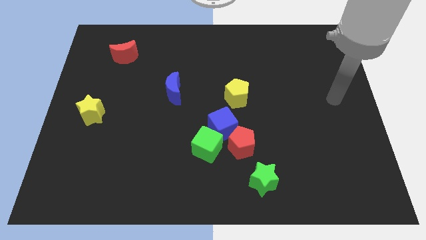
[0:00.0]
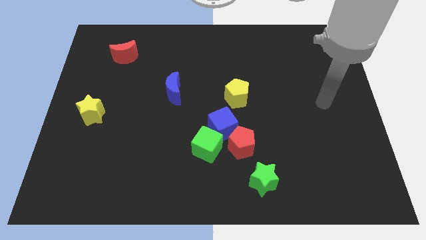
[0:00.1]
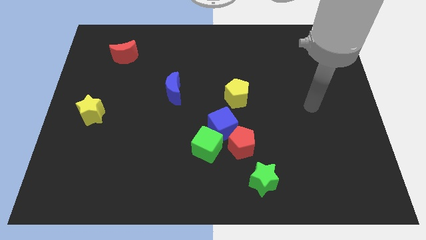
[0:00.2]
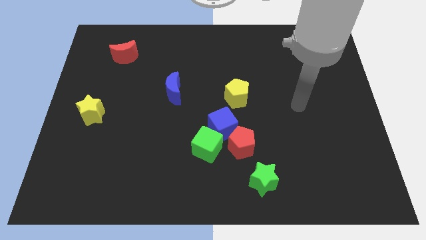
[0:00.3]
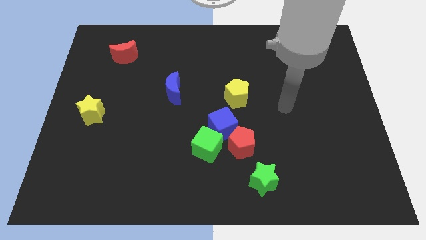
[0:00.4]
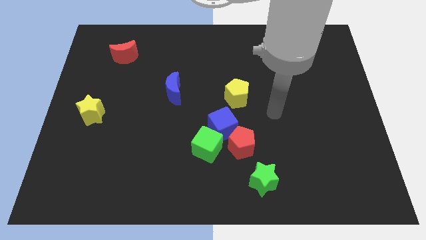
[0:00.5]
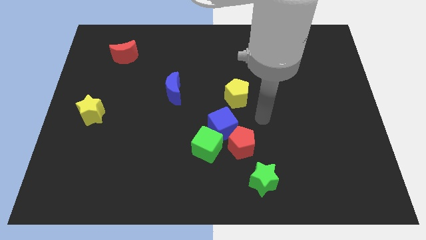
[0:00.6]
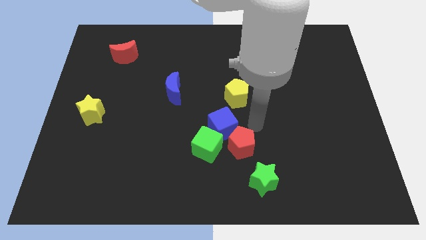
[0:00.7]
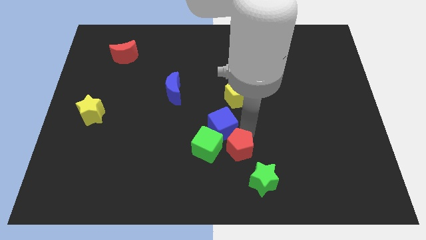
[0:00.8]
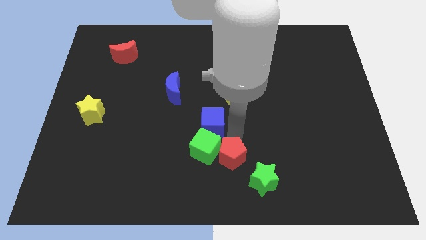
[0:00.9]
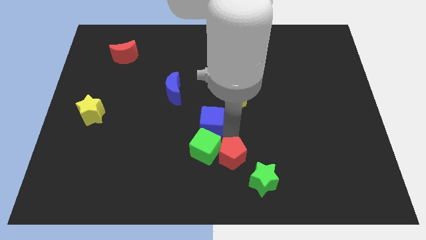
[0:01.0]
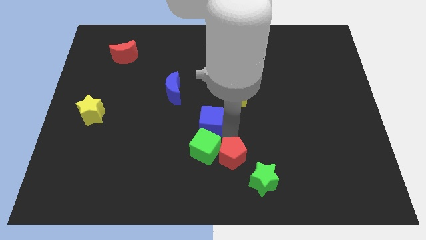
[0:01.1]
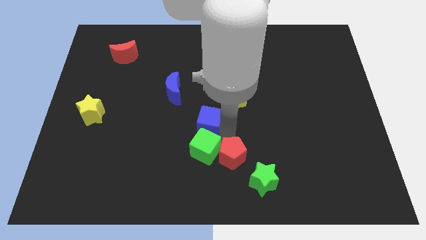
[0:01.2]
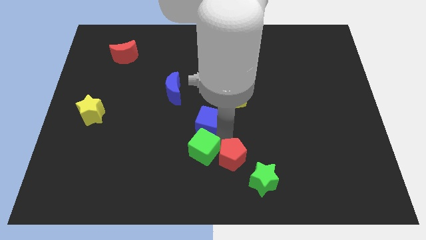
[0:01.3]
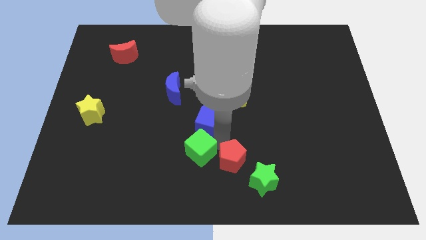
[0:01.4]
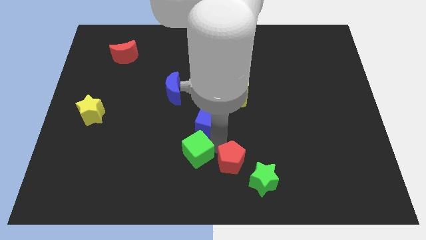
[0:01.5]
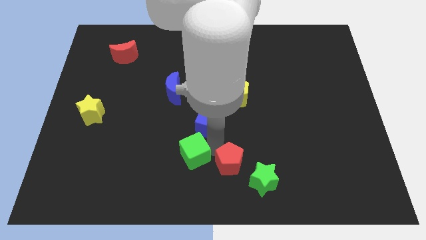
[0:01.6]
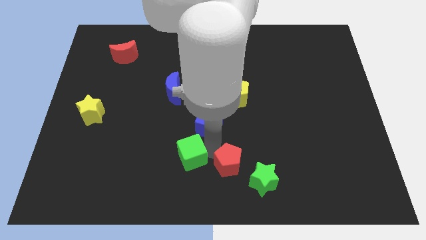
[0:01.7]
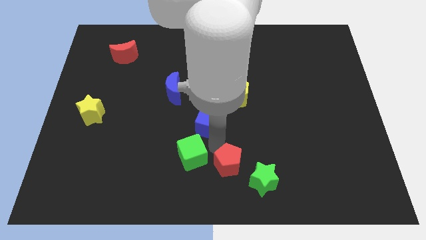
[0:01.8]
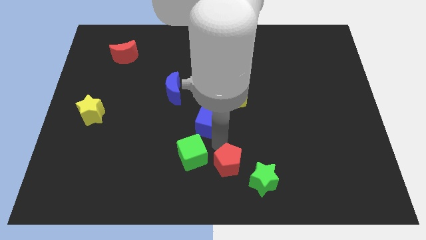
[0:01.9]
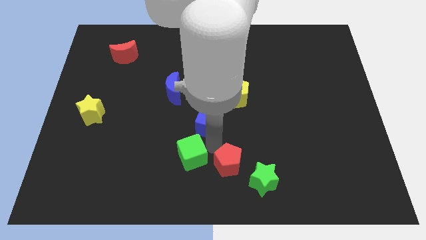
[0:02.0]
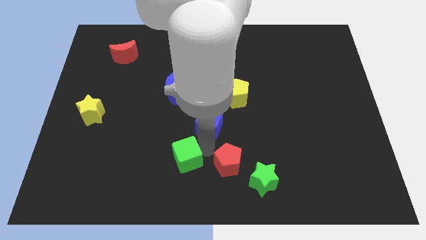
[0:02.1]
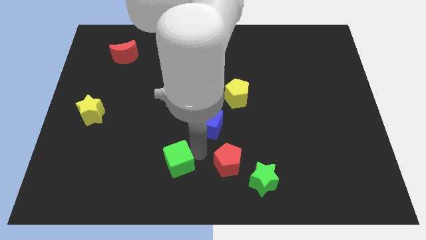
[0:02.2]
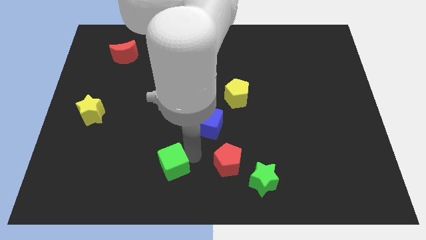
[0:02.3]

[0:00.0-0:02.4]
separate the green cube from the blue cube and red pentagon

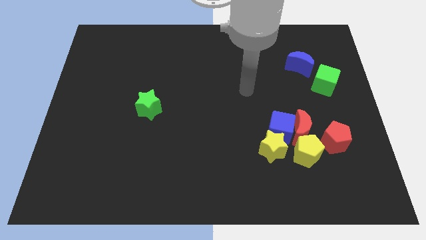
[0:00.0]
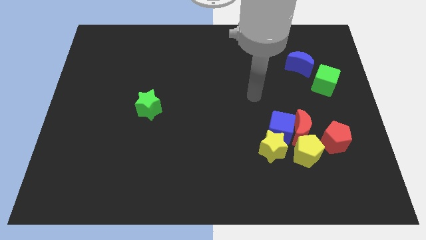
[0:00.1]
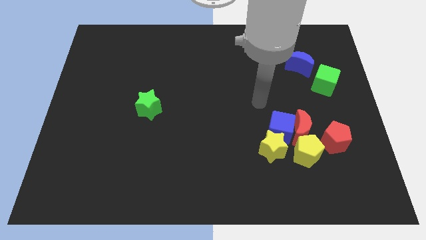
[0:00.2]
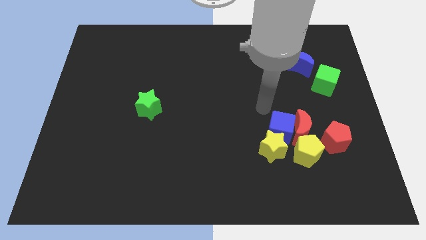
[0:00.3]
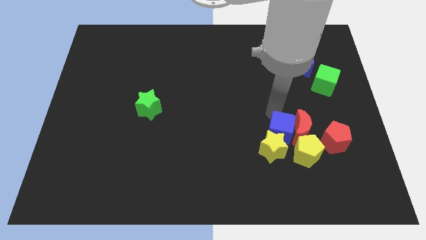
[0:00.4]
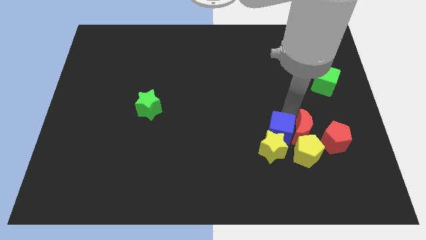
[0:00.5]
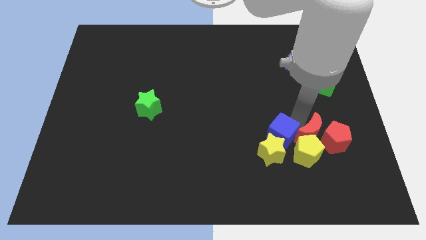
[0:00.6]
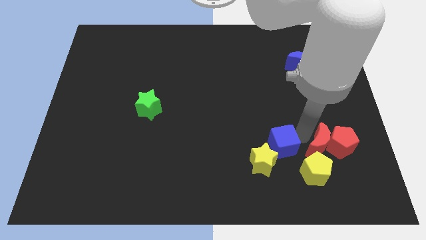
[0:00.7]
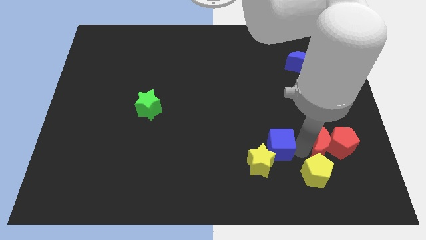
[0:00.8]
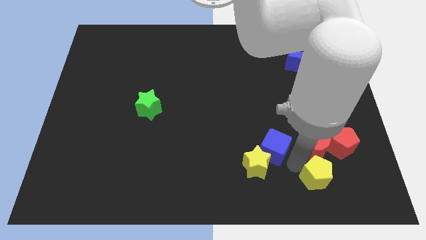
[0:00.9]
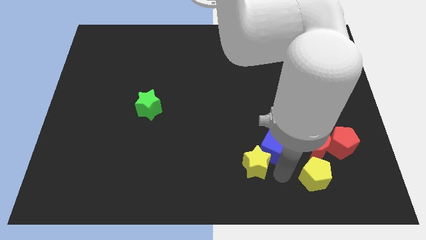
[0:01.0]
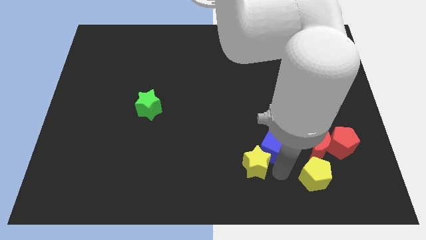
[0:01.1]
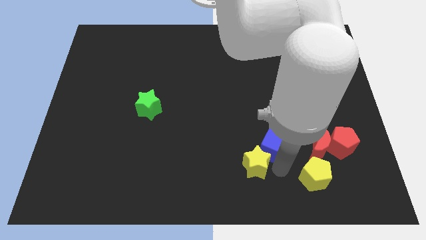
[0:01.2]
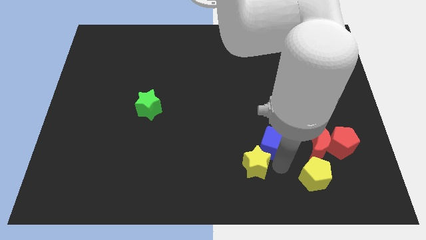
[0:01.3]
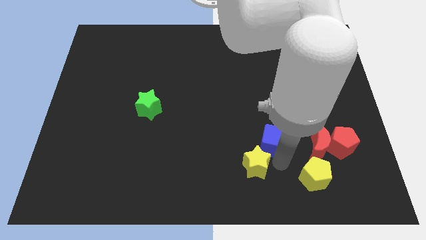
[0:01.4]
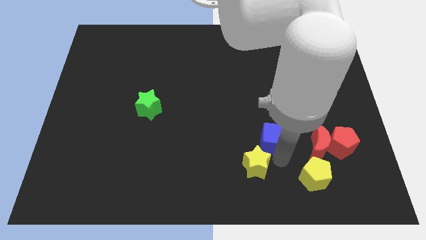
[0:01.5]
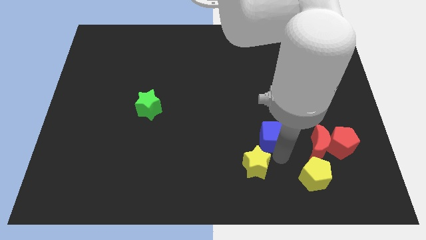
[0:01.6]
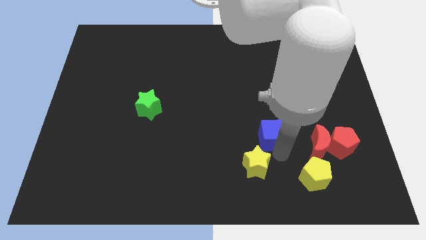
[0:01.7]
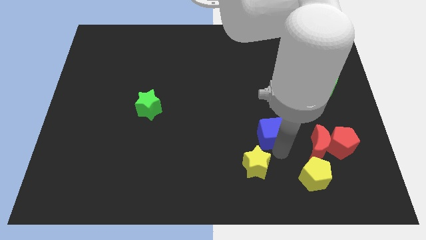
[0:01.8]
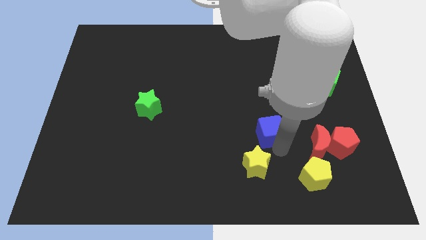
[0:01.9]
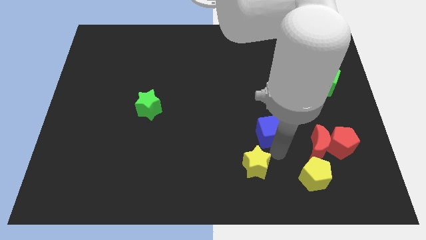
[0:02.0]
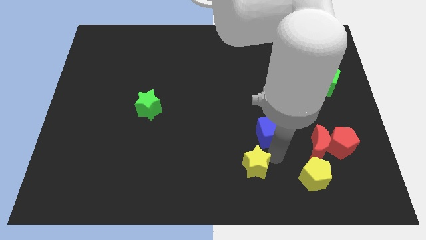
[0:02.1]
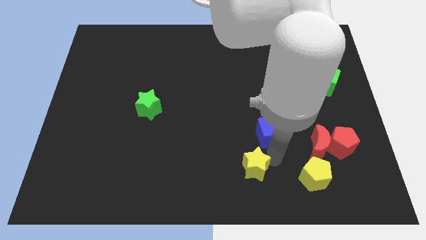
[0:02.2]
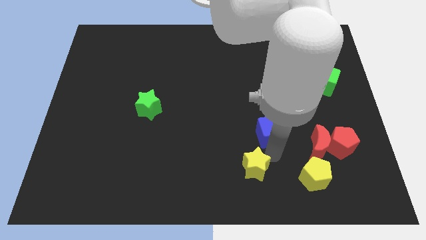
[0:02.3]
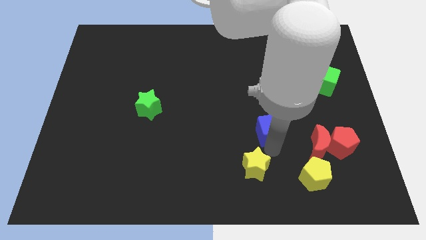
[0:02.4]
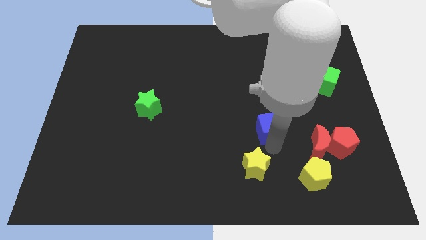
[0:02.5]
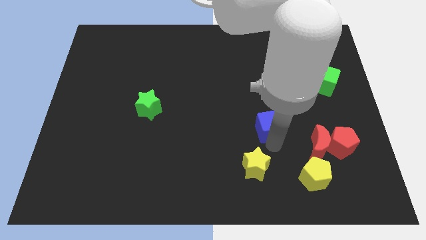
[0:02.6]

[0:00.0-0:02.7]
move the blue cube away from the red moon, yellow star, and yellow pentagon

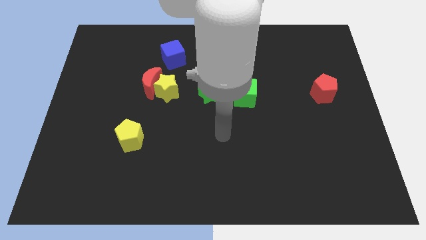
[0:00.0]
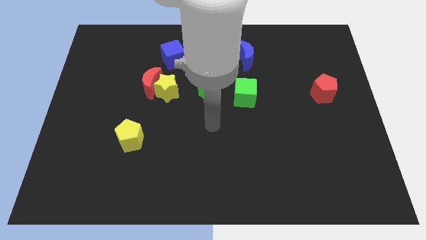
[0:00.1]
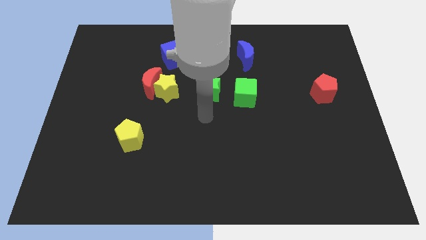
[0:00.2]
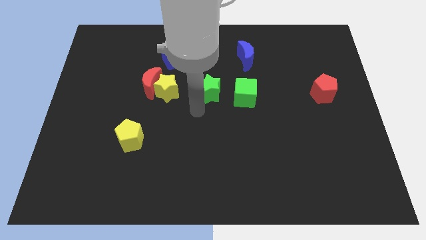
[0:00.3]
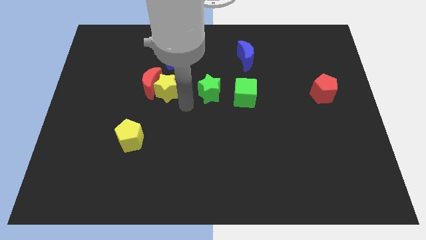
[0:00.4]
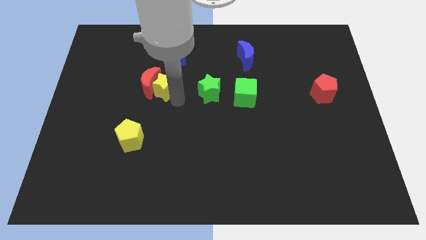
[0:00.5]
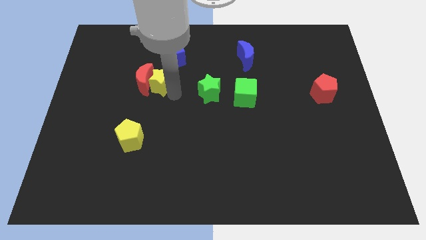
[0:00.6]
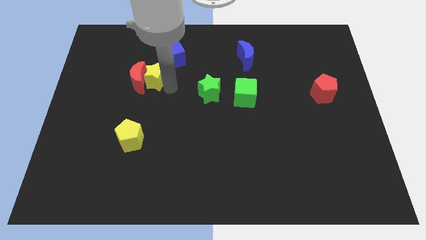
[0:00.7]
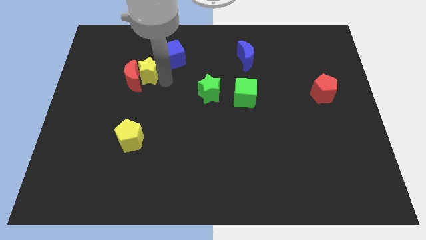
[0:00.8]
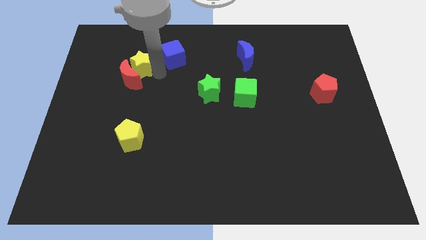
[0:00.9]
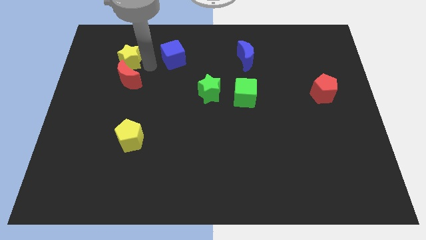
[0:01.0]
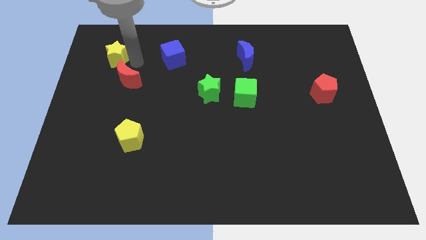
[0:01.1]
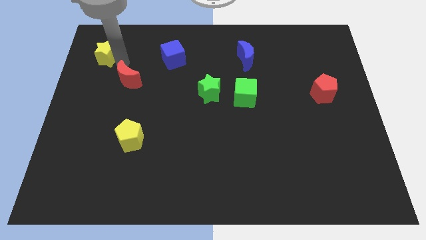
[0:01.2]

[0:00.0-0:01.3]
pull the red moon apart from the yellow star

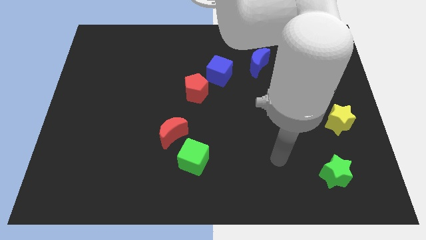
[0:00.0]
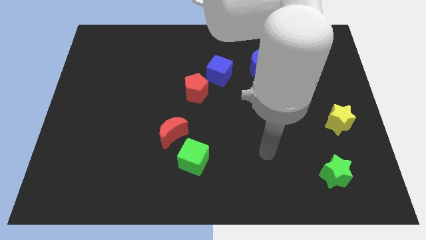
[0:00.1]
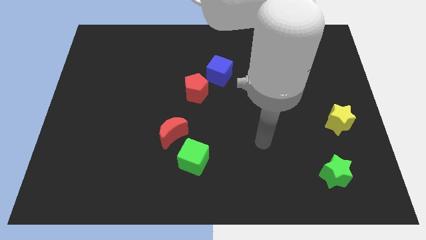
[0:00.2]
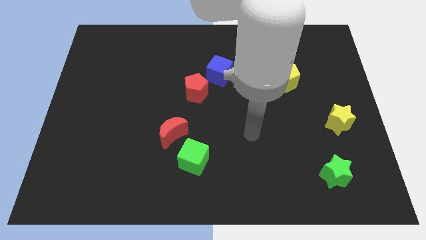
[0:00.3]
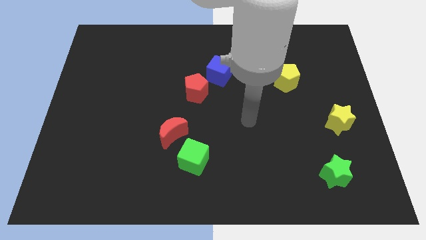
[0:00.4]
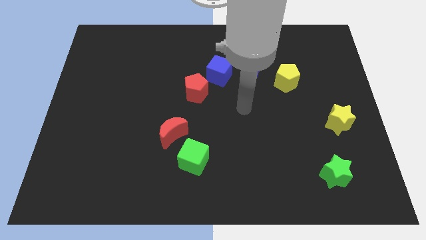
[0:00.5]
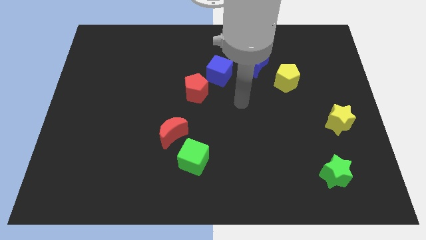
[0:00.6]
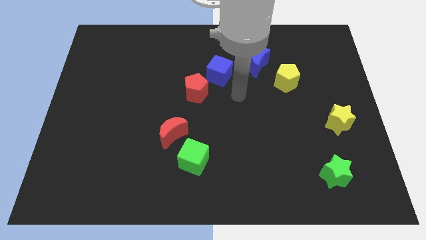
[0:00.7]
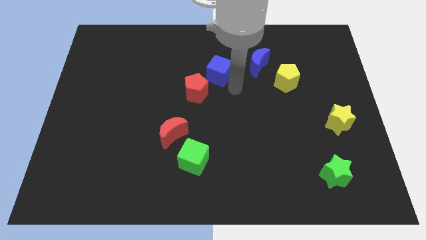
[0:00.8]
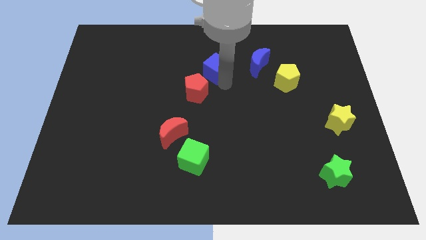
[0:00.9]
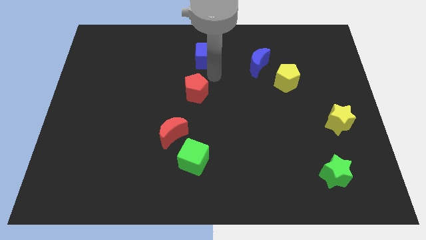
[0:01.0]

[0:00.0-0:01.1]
pull the red pentagon apart from the blue cube

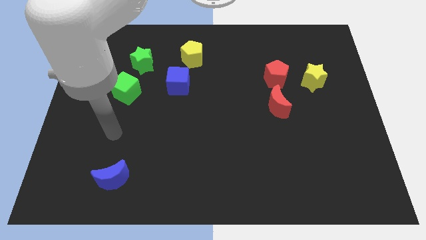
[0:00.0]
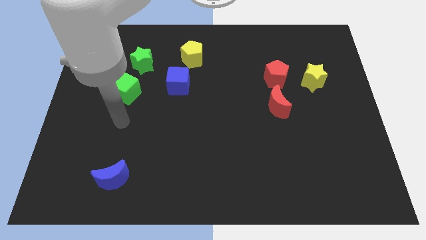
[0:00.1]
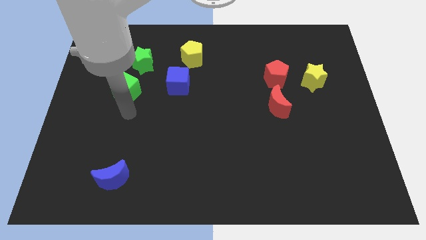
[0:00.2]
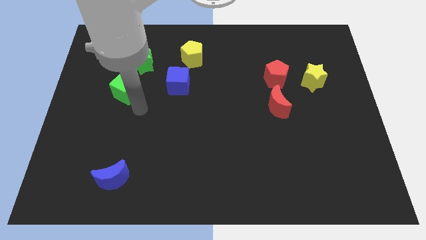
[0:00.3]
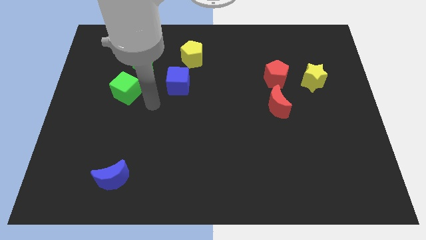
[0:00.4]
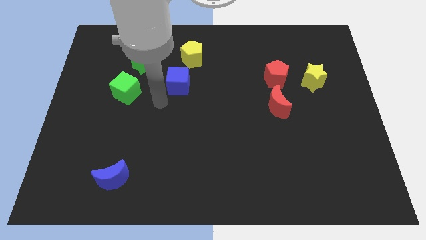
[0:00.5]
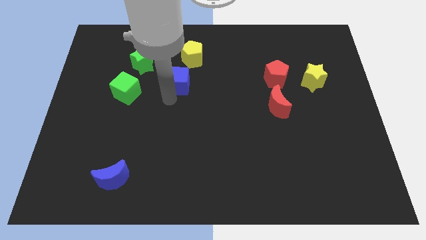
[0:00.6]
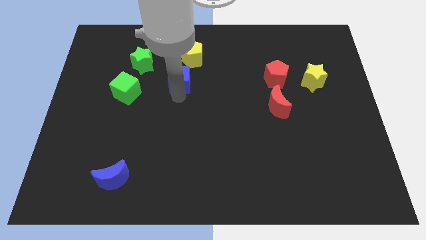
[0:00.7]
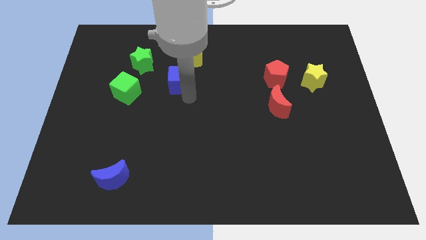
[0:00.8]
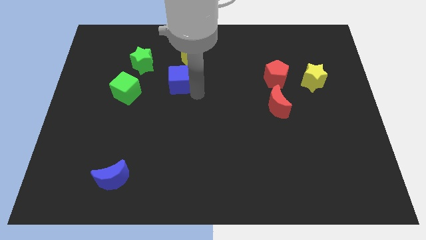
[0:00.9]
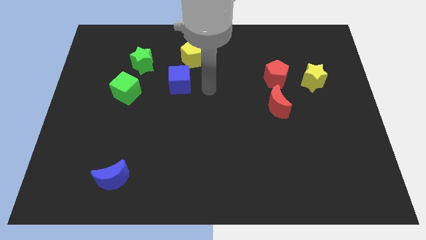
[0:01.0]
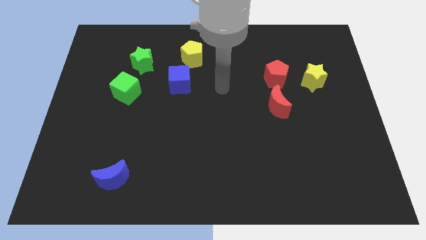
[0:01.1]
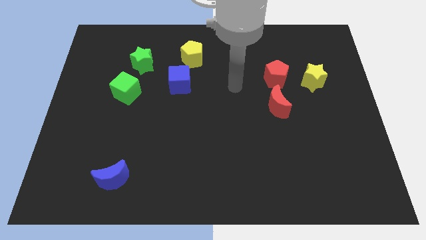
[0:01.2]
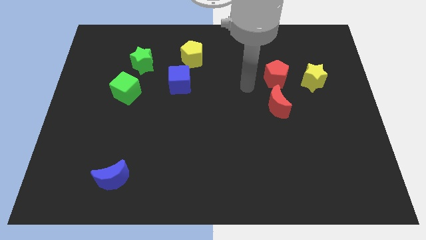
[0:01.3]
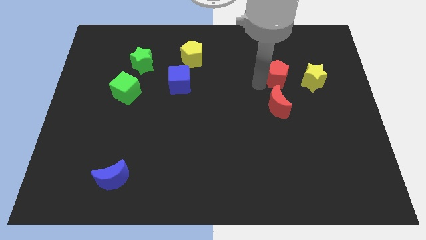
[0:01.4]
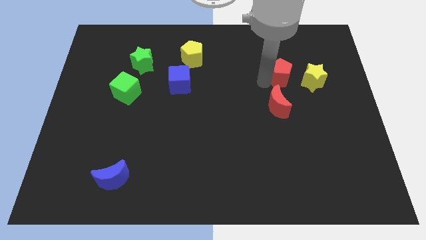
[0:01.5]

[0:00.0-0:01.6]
separate the red moon from the red pentagon
